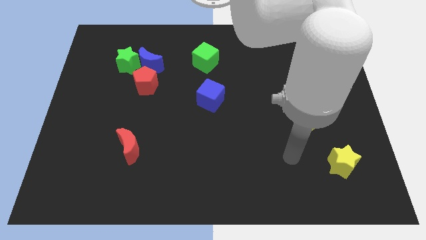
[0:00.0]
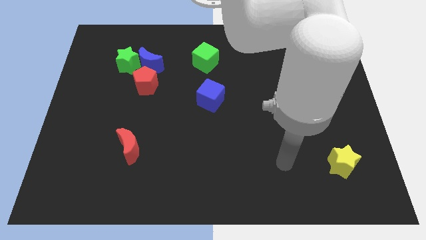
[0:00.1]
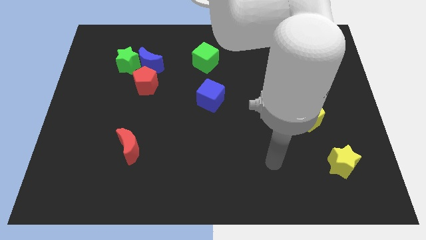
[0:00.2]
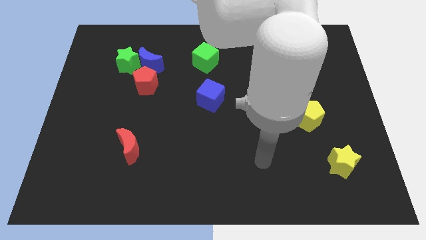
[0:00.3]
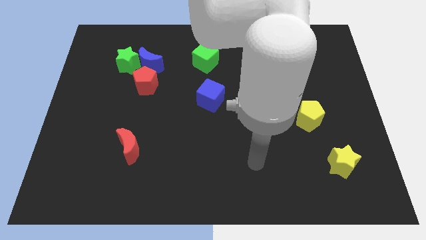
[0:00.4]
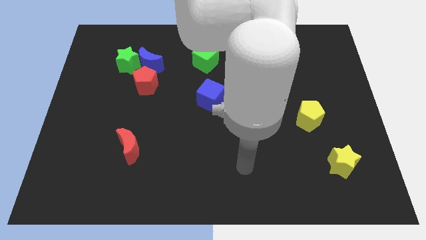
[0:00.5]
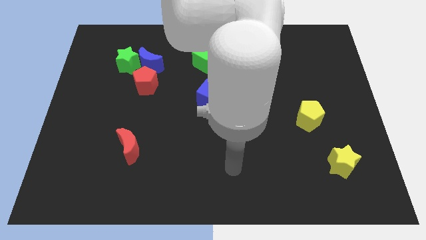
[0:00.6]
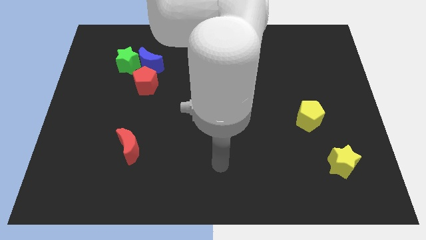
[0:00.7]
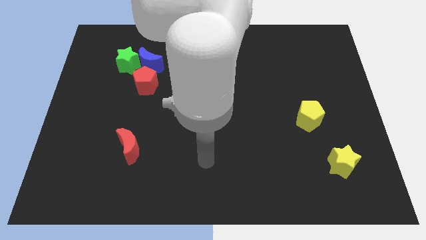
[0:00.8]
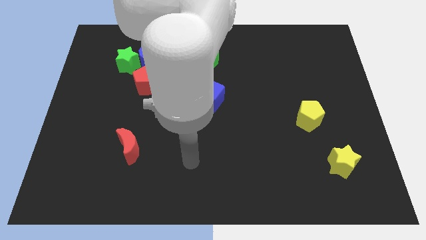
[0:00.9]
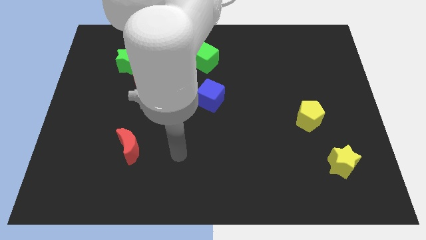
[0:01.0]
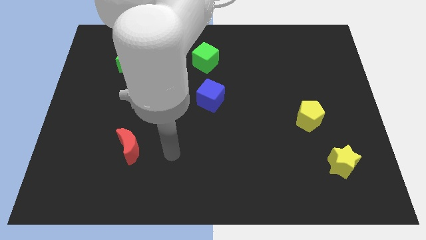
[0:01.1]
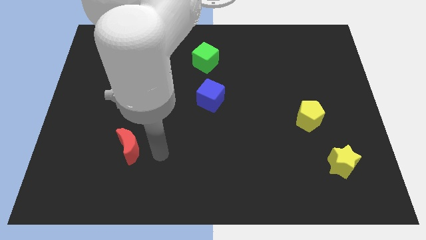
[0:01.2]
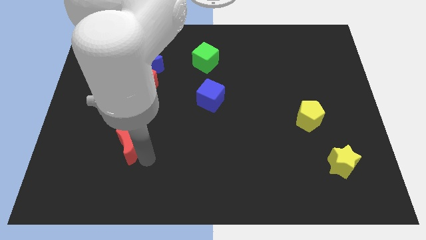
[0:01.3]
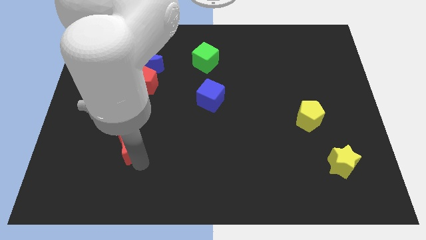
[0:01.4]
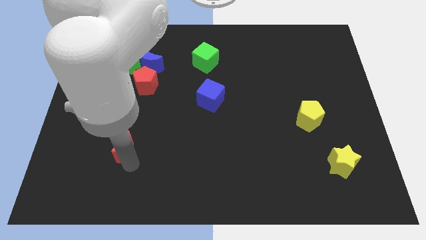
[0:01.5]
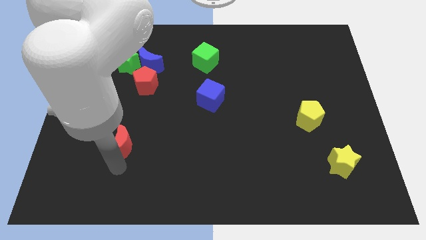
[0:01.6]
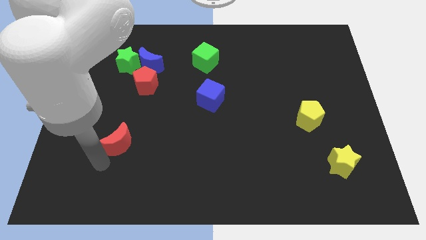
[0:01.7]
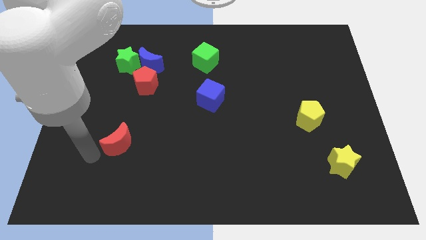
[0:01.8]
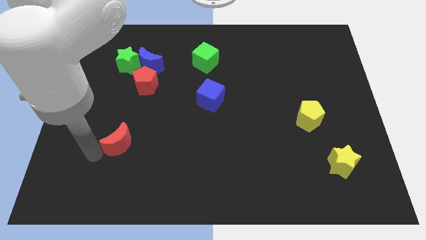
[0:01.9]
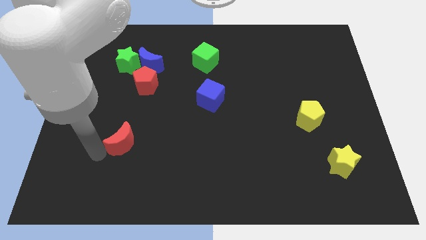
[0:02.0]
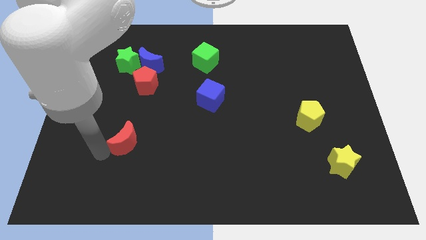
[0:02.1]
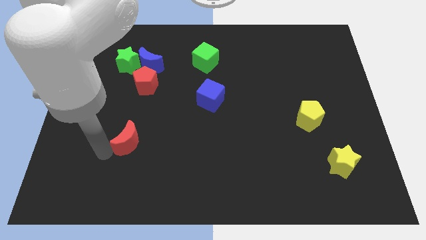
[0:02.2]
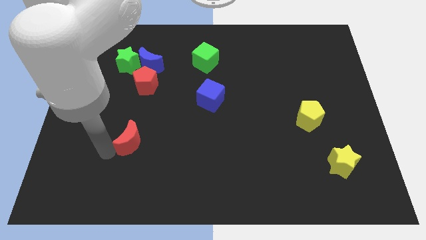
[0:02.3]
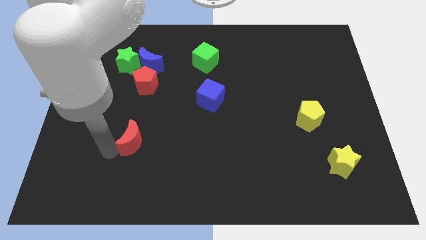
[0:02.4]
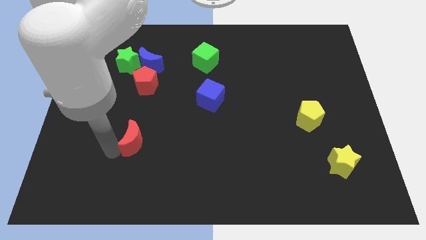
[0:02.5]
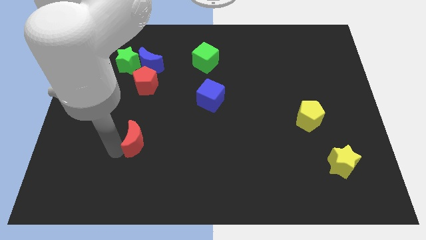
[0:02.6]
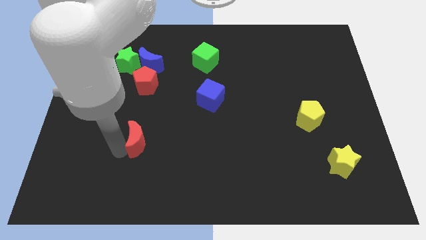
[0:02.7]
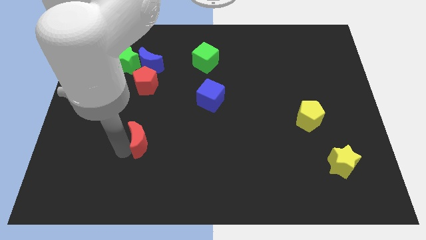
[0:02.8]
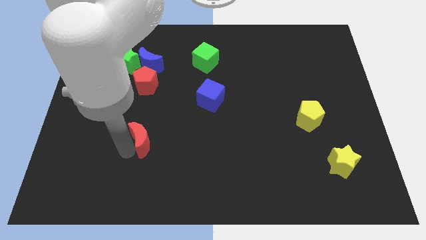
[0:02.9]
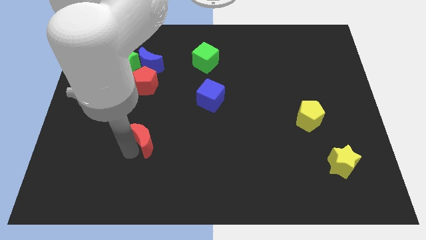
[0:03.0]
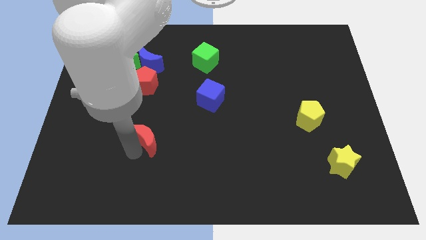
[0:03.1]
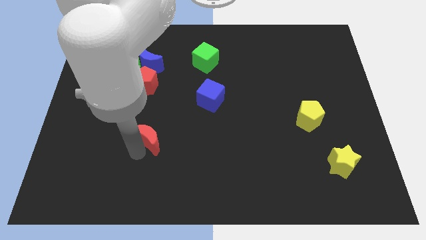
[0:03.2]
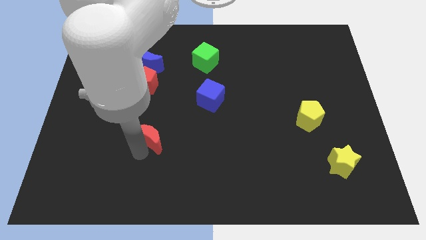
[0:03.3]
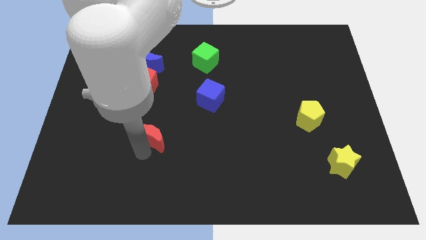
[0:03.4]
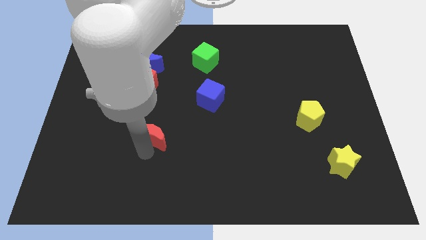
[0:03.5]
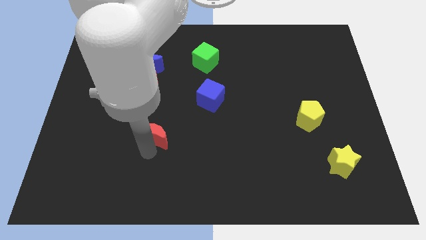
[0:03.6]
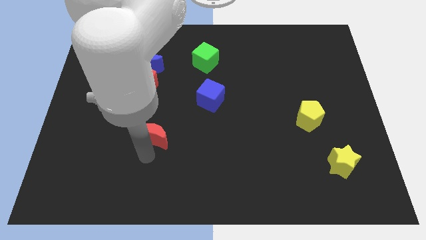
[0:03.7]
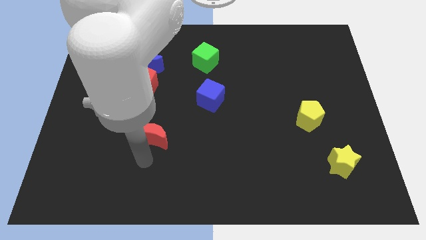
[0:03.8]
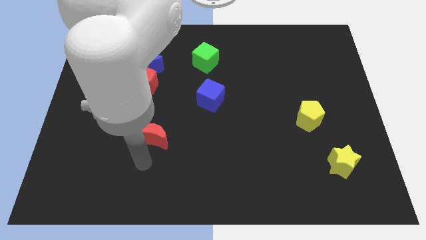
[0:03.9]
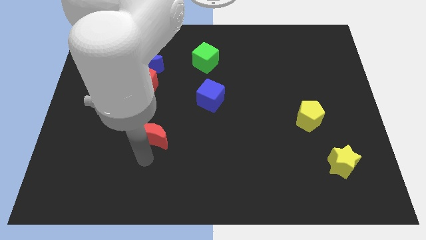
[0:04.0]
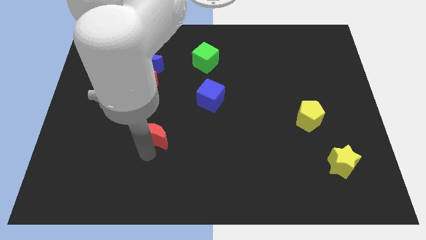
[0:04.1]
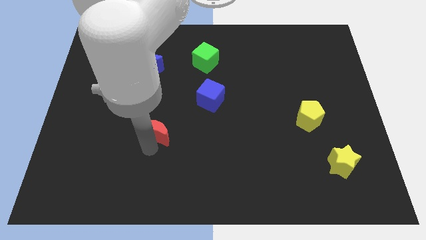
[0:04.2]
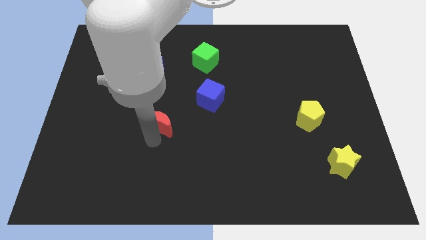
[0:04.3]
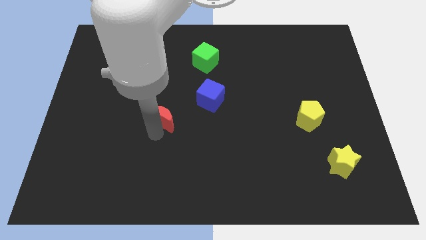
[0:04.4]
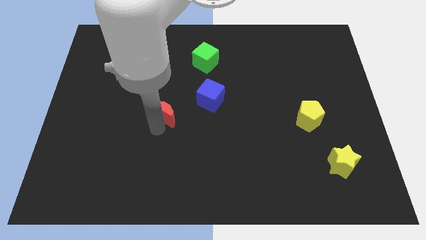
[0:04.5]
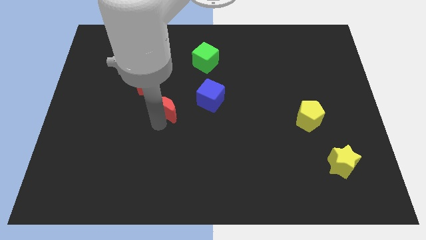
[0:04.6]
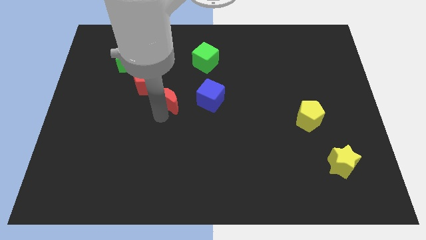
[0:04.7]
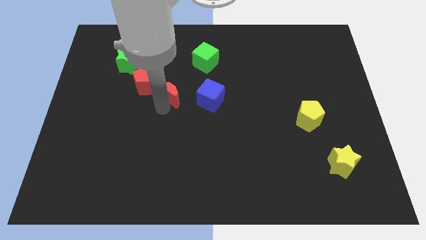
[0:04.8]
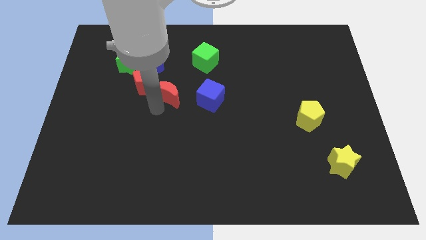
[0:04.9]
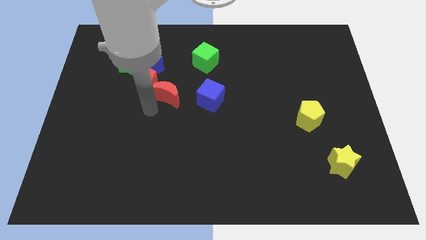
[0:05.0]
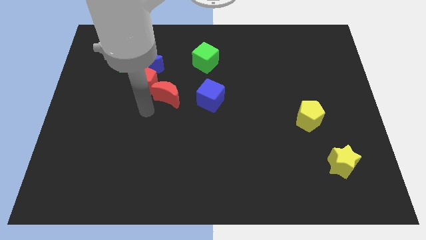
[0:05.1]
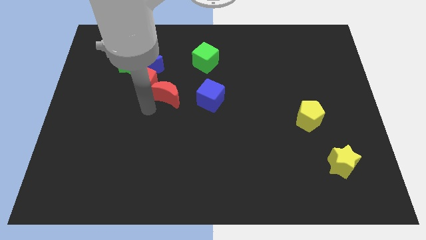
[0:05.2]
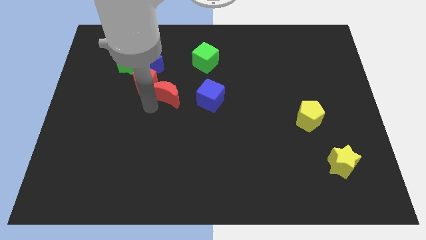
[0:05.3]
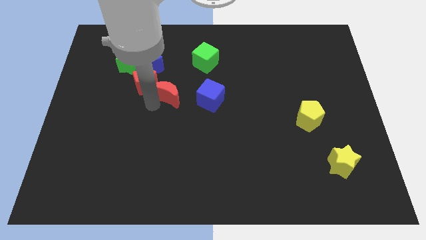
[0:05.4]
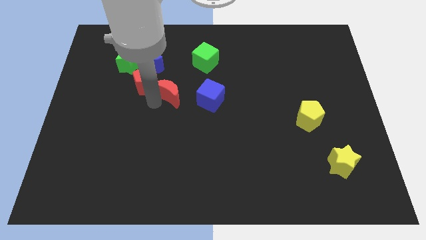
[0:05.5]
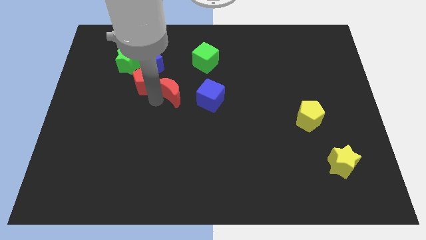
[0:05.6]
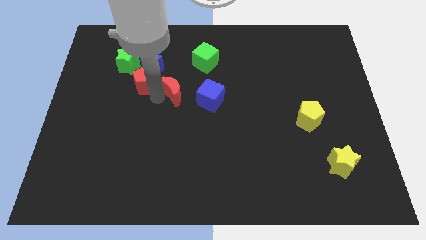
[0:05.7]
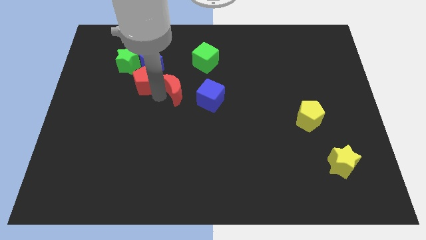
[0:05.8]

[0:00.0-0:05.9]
slide the red moon diagonally up and to the left of the blue cube

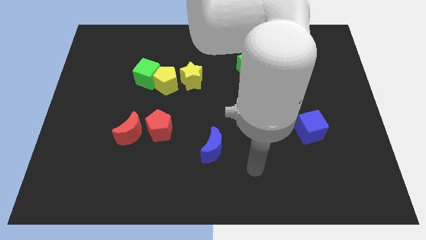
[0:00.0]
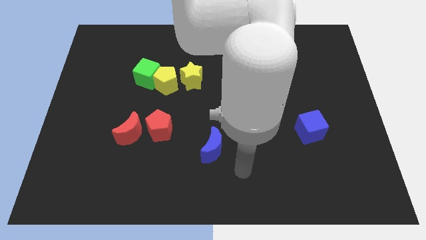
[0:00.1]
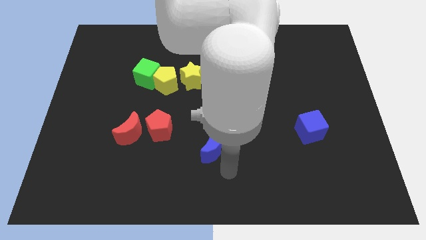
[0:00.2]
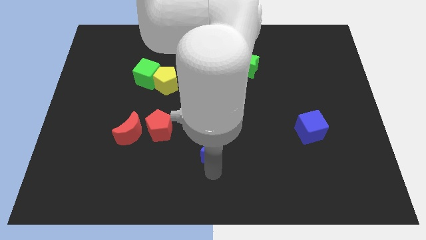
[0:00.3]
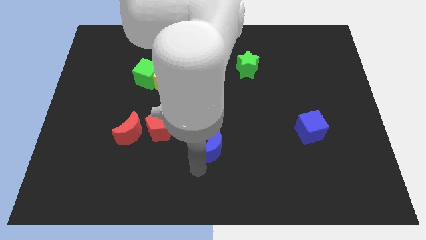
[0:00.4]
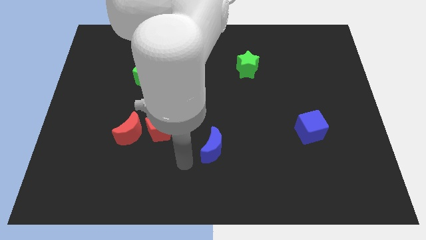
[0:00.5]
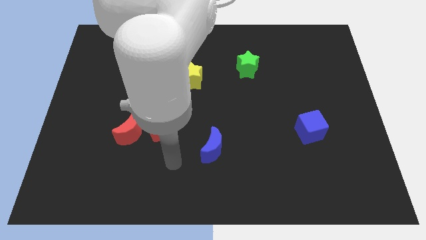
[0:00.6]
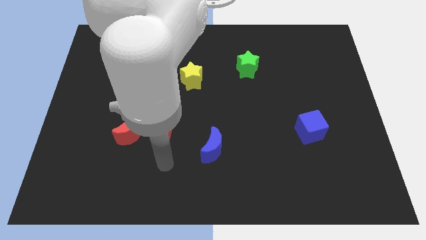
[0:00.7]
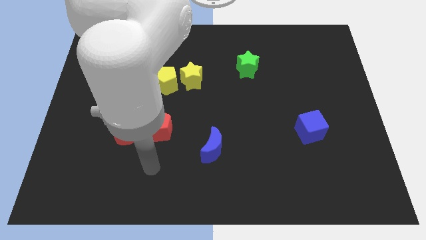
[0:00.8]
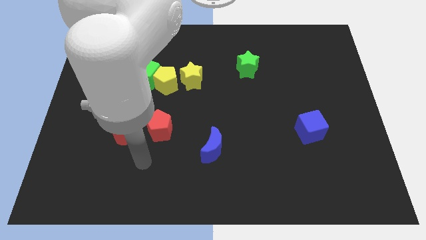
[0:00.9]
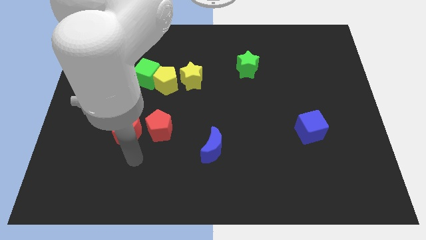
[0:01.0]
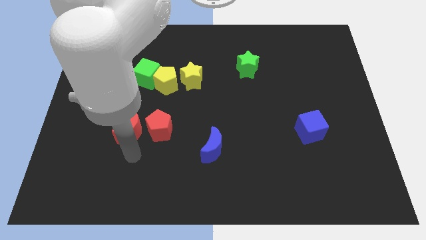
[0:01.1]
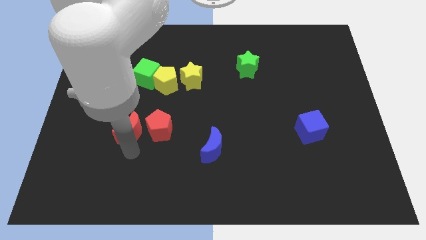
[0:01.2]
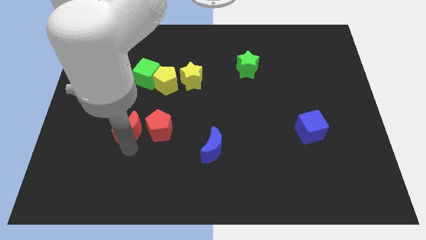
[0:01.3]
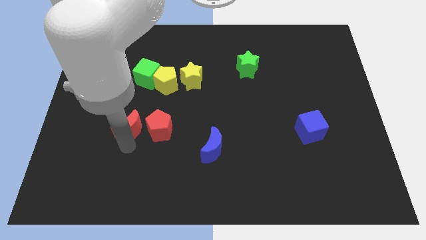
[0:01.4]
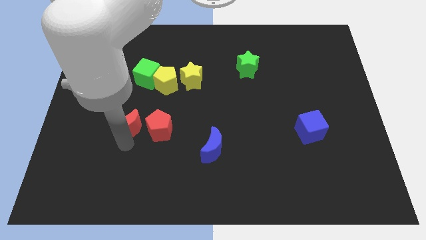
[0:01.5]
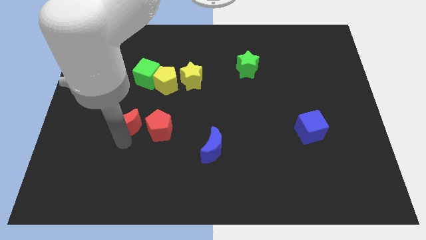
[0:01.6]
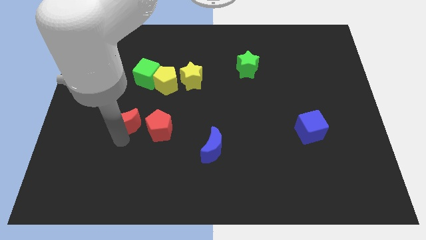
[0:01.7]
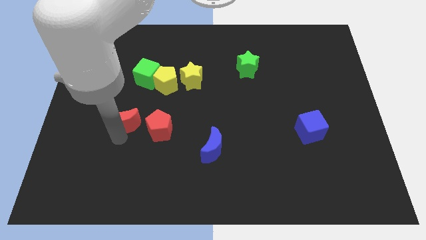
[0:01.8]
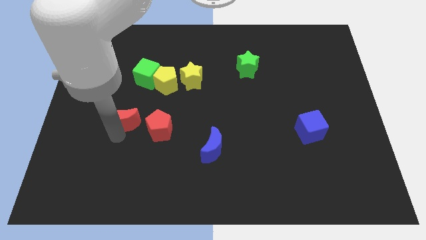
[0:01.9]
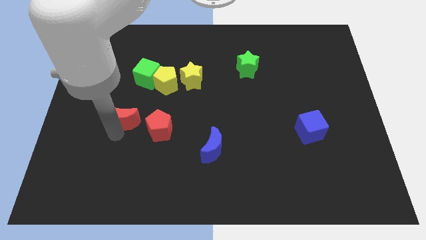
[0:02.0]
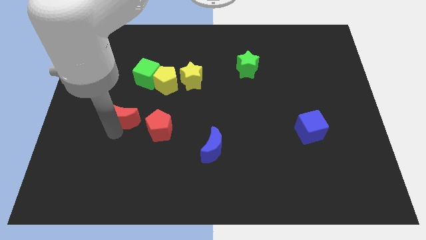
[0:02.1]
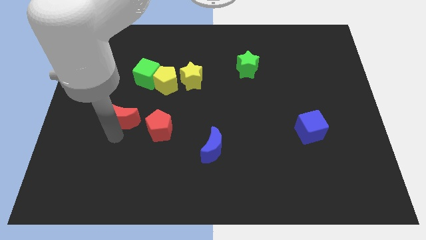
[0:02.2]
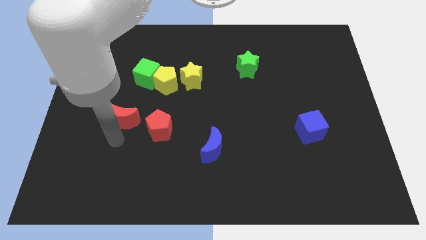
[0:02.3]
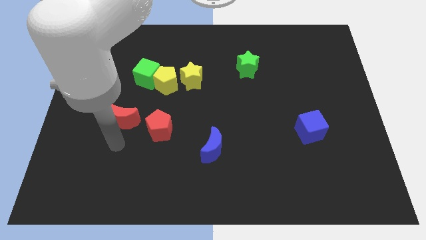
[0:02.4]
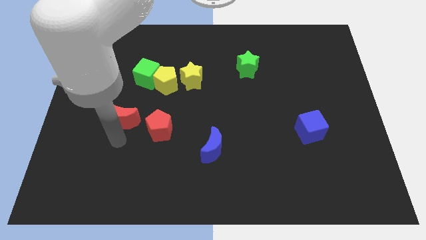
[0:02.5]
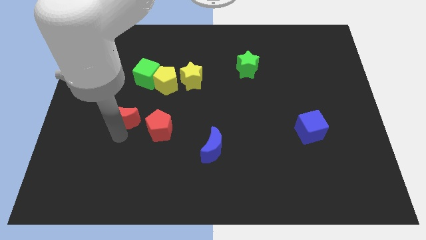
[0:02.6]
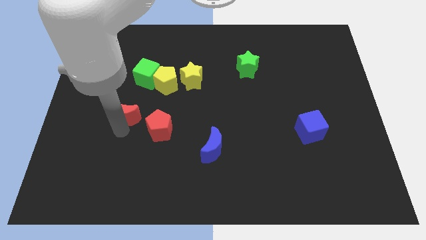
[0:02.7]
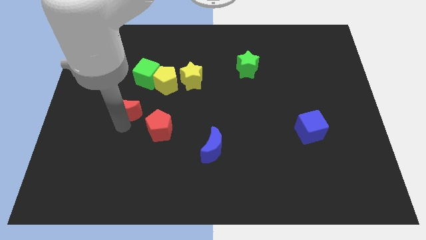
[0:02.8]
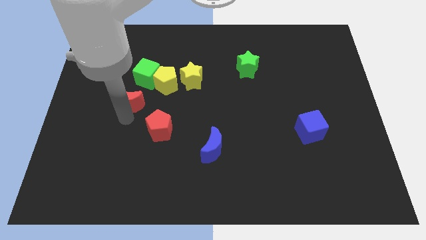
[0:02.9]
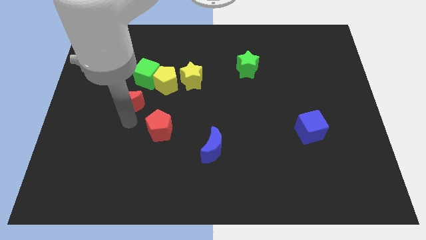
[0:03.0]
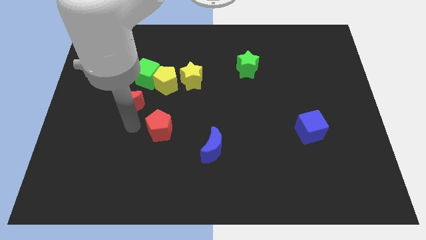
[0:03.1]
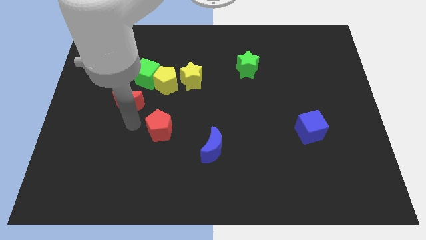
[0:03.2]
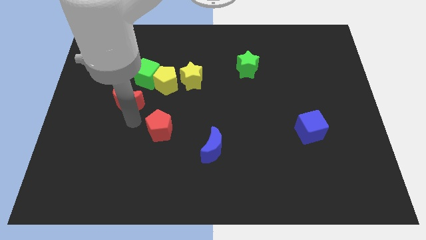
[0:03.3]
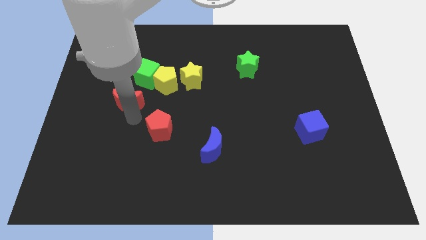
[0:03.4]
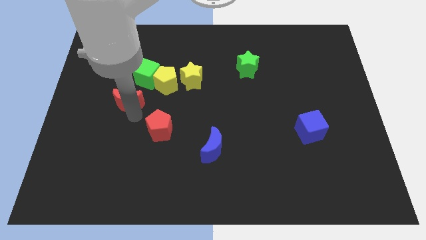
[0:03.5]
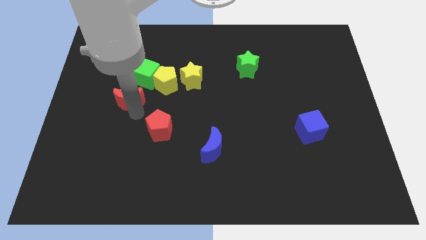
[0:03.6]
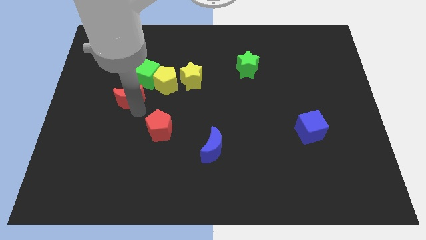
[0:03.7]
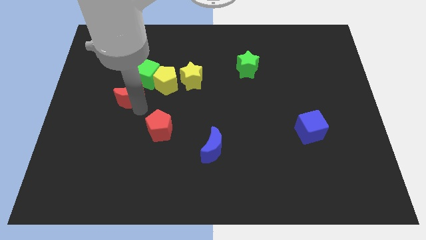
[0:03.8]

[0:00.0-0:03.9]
move the red moon left of the yellow pentagon
